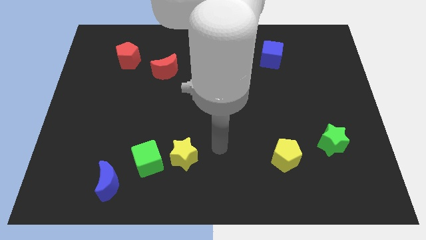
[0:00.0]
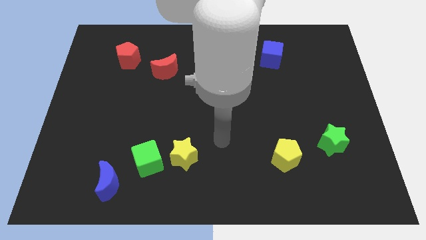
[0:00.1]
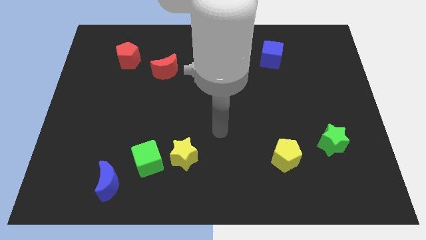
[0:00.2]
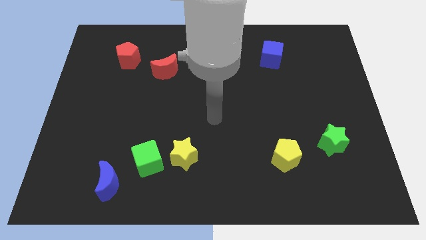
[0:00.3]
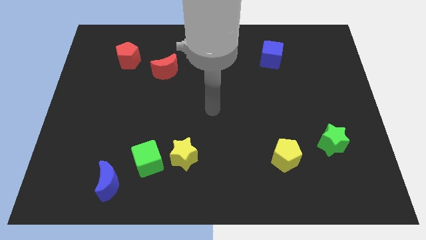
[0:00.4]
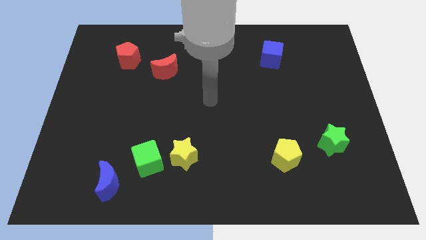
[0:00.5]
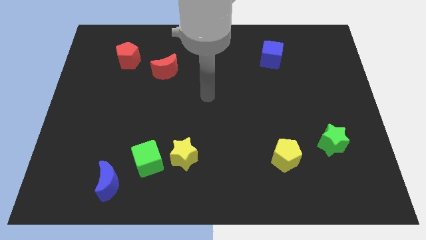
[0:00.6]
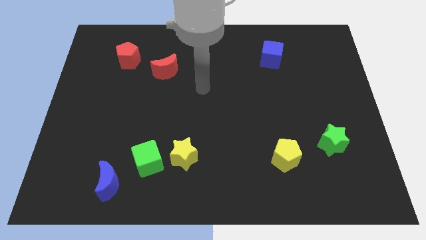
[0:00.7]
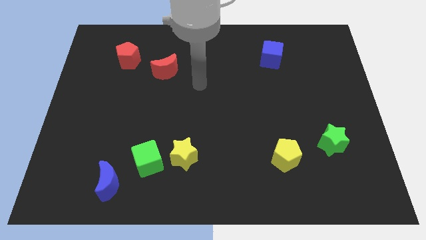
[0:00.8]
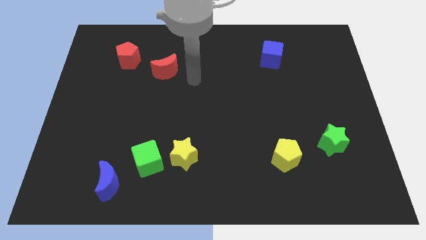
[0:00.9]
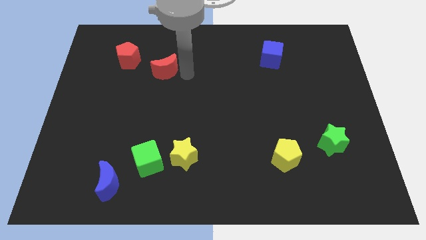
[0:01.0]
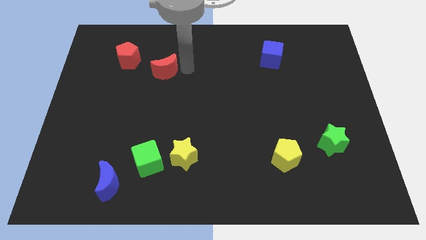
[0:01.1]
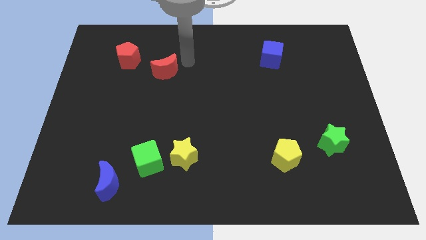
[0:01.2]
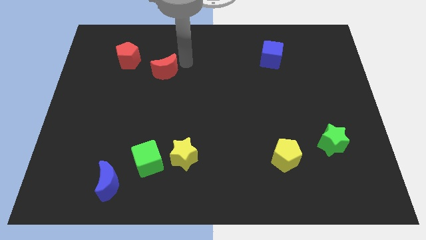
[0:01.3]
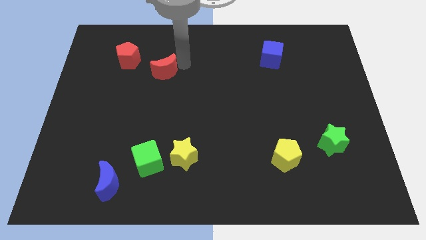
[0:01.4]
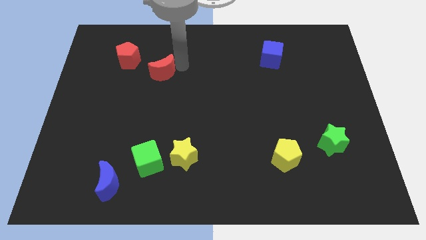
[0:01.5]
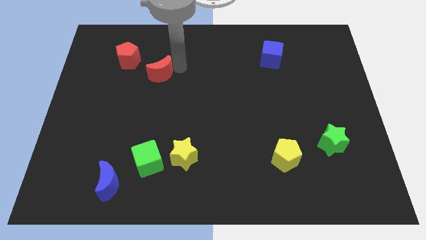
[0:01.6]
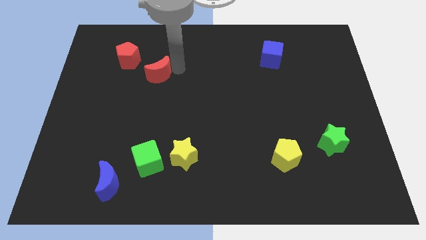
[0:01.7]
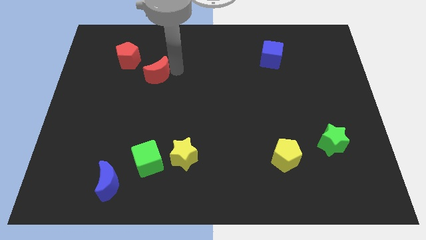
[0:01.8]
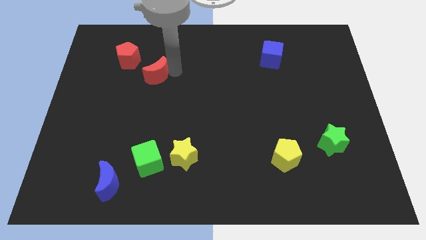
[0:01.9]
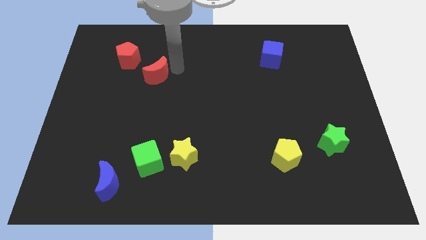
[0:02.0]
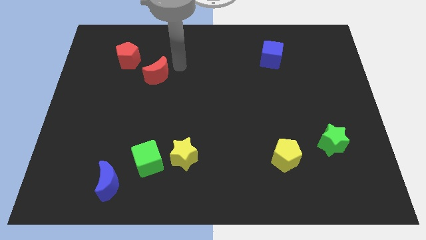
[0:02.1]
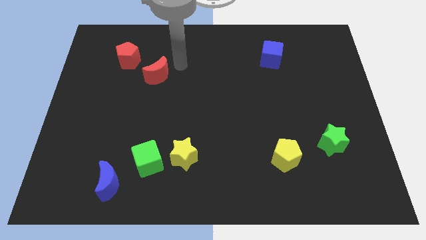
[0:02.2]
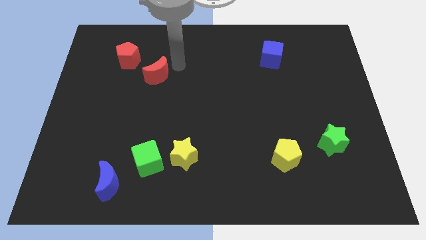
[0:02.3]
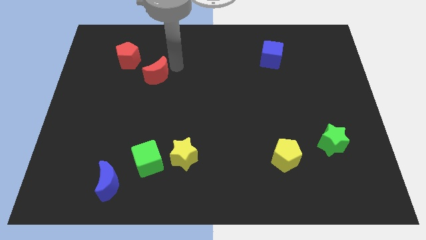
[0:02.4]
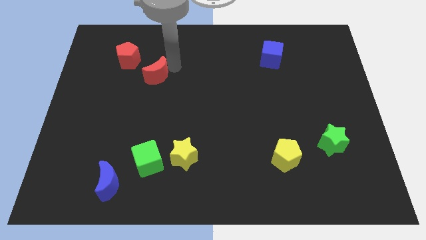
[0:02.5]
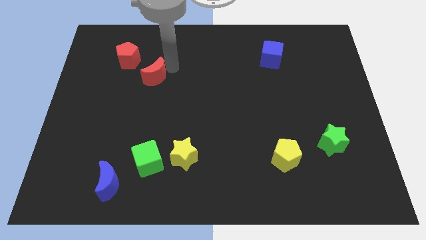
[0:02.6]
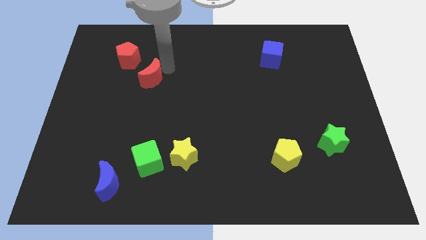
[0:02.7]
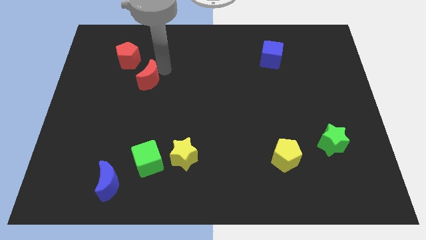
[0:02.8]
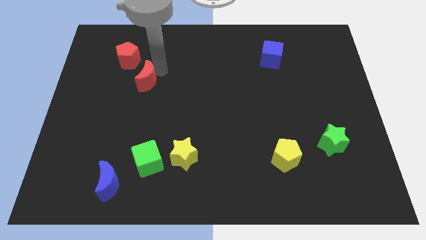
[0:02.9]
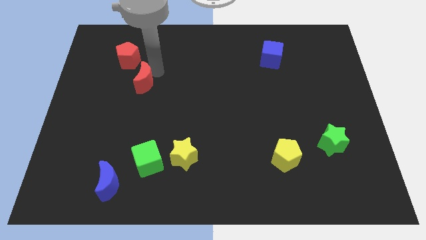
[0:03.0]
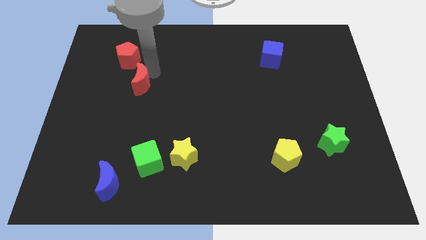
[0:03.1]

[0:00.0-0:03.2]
push the red moon down and to the left slightly

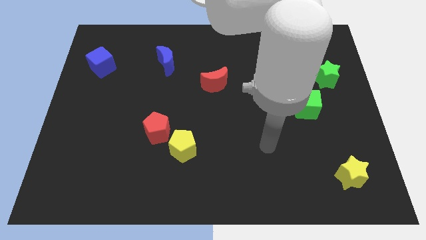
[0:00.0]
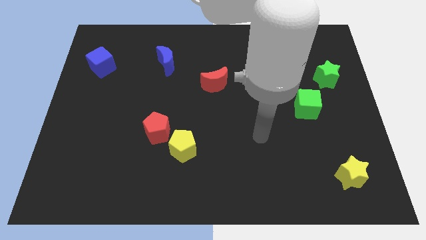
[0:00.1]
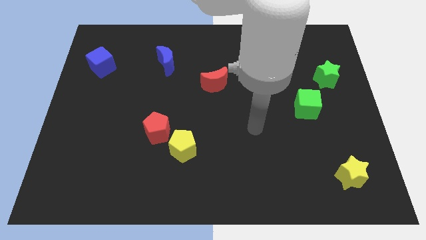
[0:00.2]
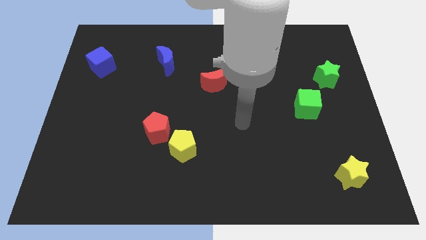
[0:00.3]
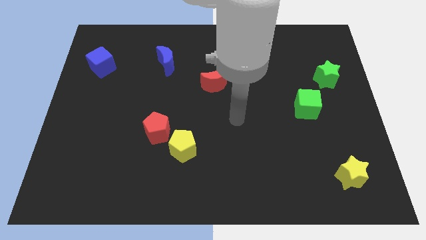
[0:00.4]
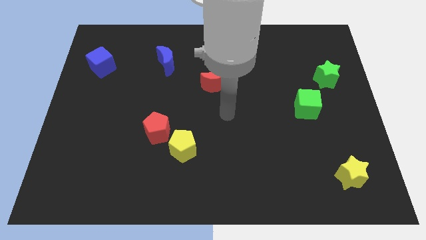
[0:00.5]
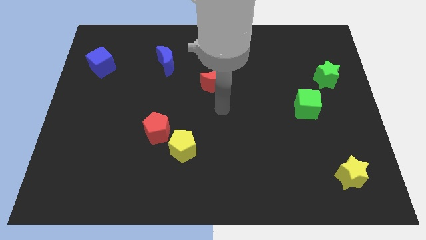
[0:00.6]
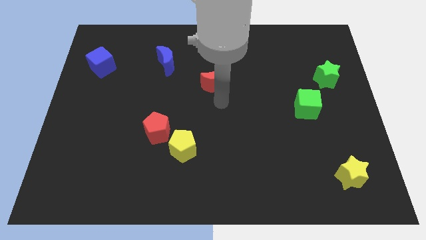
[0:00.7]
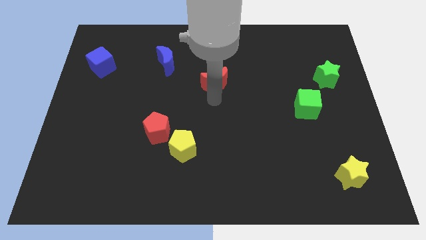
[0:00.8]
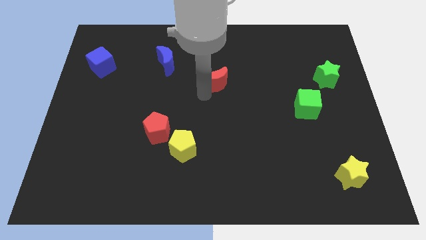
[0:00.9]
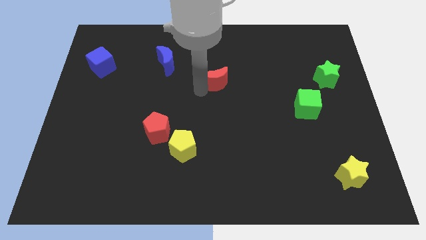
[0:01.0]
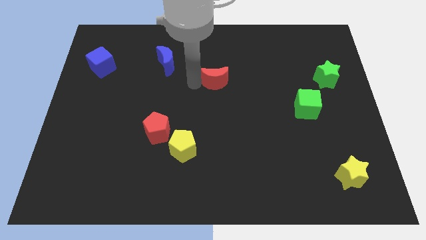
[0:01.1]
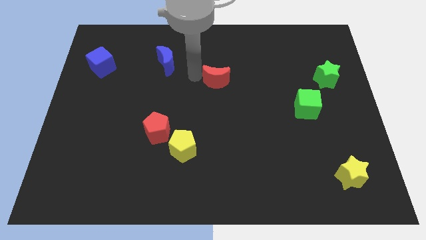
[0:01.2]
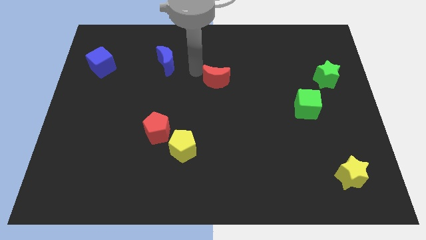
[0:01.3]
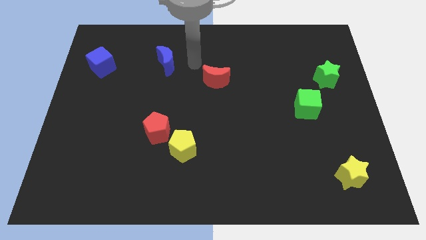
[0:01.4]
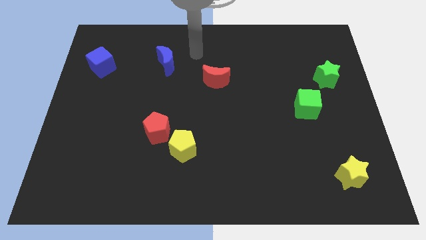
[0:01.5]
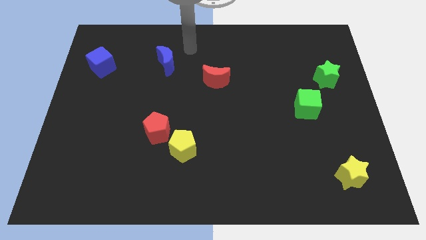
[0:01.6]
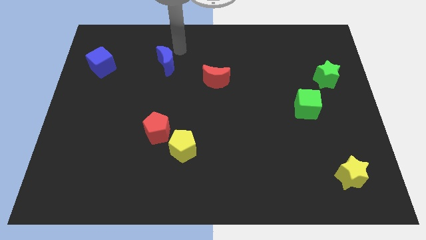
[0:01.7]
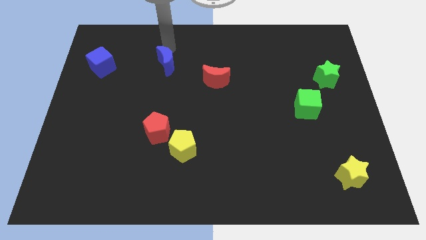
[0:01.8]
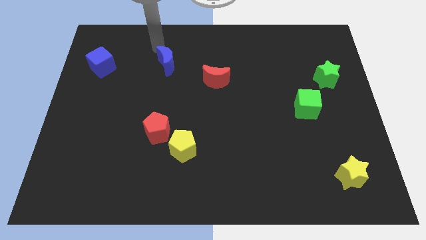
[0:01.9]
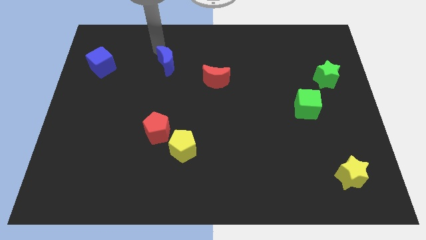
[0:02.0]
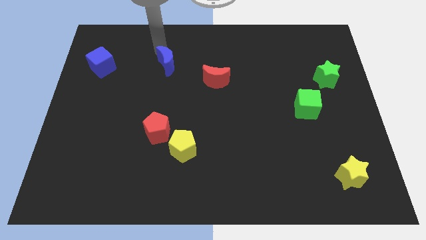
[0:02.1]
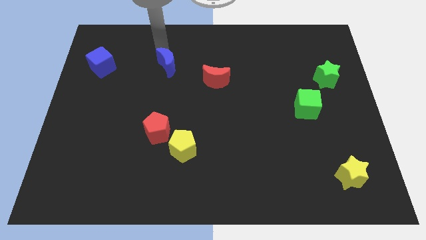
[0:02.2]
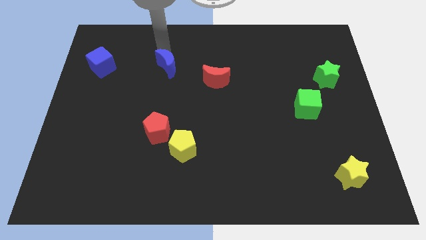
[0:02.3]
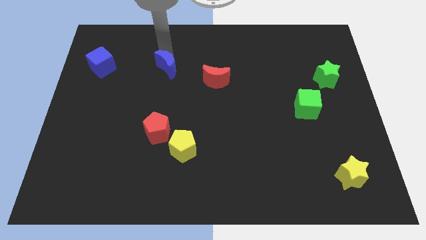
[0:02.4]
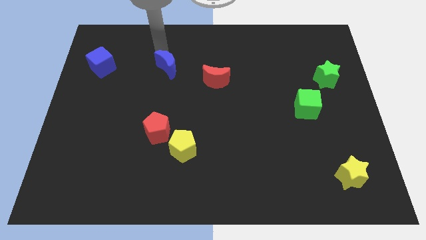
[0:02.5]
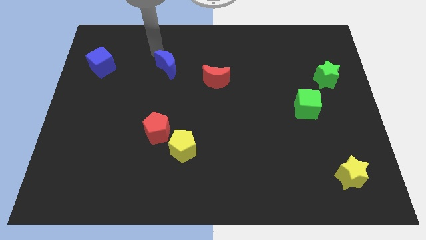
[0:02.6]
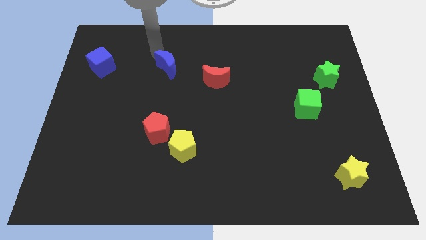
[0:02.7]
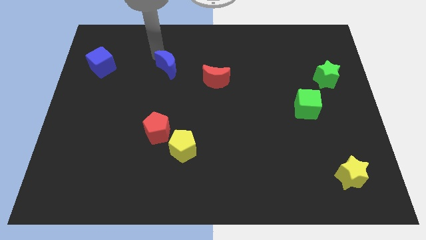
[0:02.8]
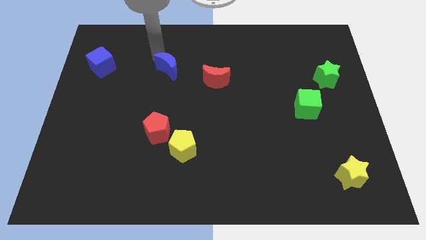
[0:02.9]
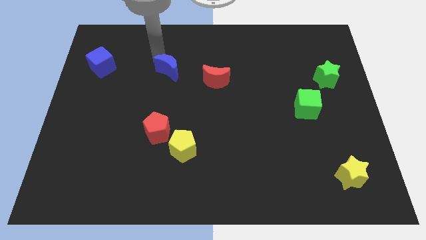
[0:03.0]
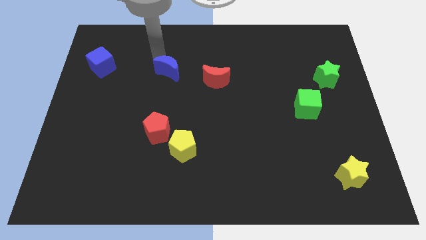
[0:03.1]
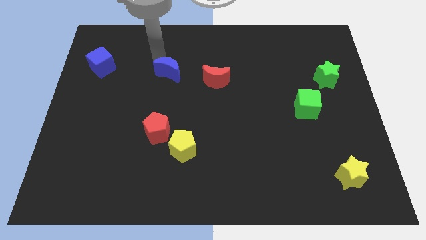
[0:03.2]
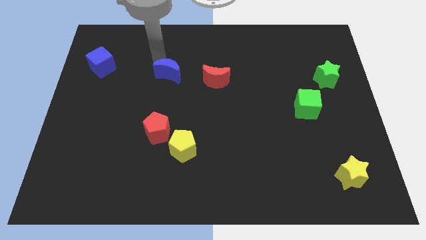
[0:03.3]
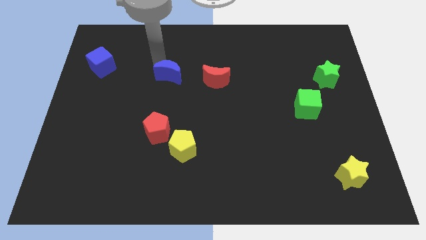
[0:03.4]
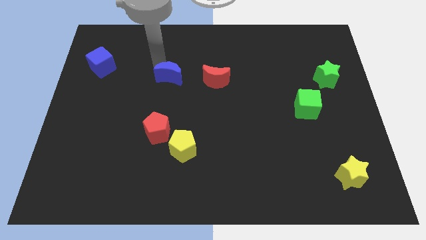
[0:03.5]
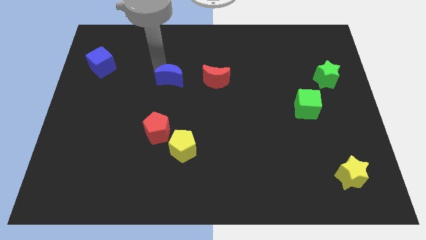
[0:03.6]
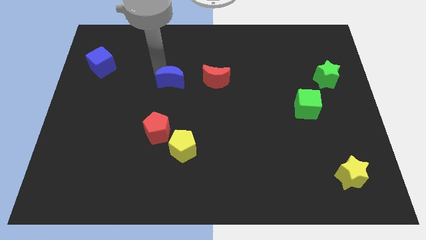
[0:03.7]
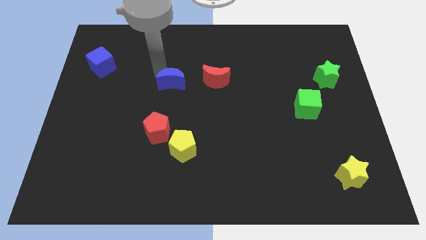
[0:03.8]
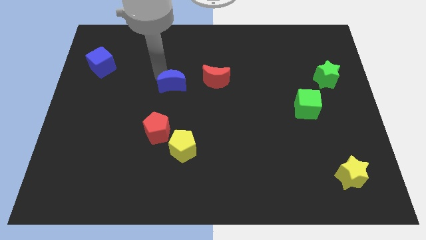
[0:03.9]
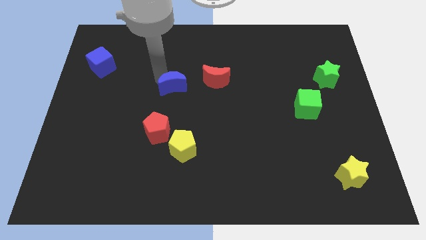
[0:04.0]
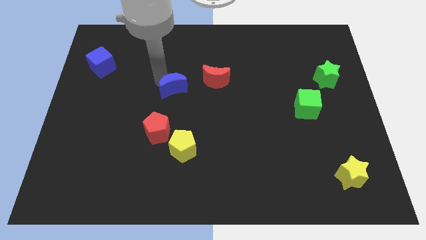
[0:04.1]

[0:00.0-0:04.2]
slide the blue moon a bit downwards and to the right

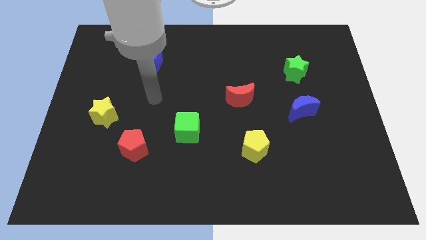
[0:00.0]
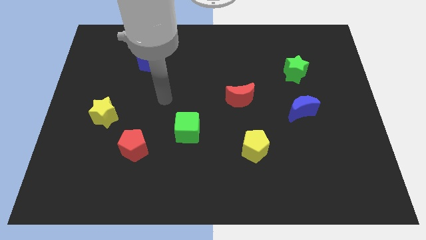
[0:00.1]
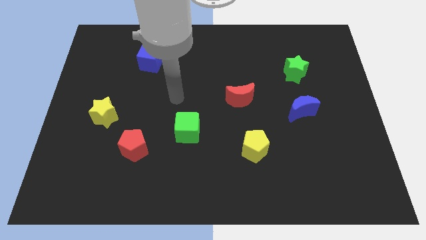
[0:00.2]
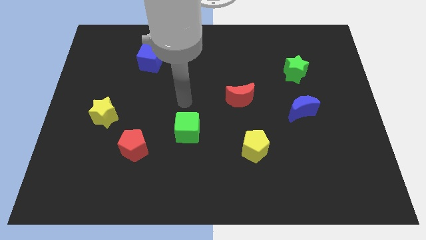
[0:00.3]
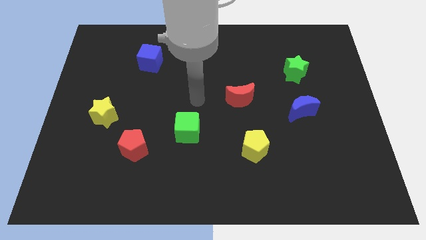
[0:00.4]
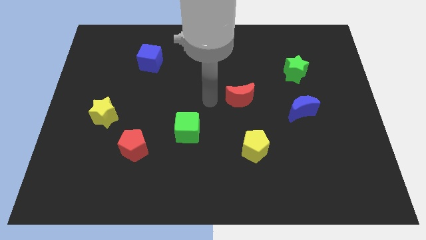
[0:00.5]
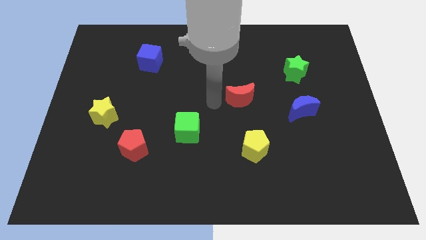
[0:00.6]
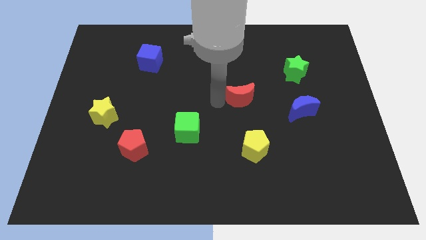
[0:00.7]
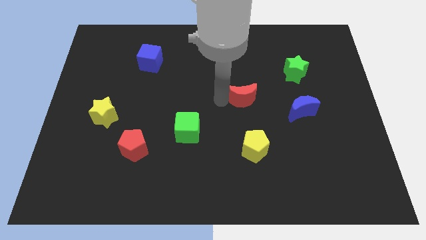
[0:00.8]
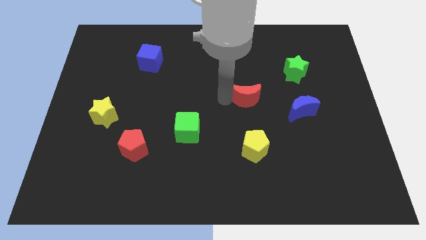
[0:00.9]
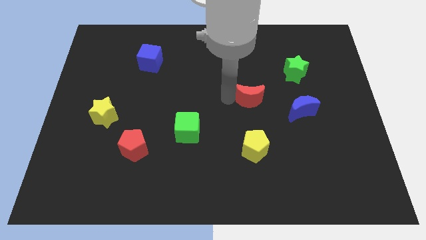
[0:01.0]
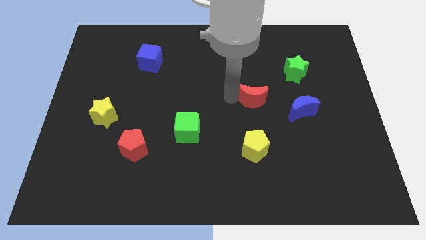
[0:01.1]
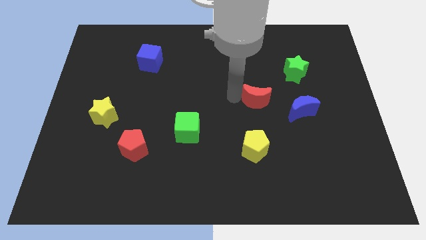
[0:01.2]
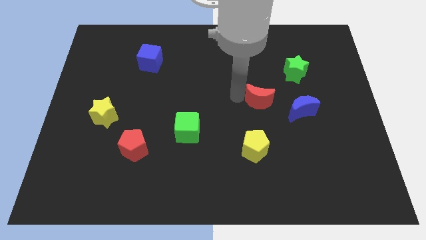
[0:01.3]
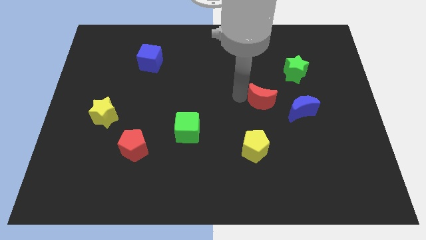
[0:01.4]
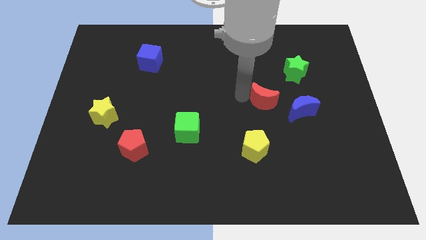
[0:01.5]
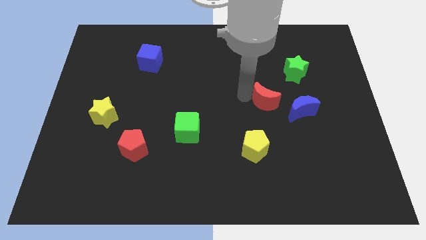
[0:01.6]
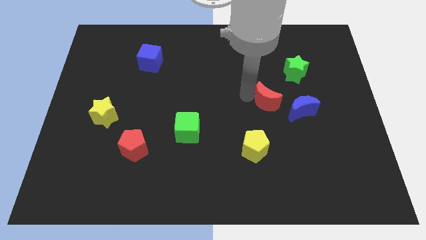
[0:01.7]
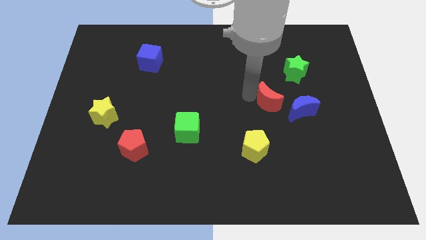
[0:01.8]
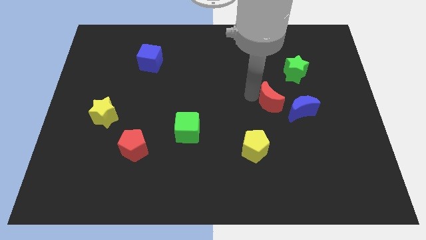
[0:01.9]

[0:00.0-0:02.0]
slide the red moon right somewhat
